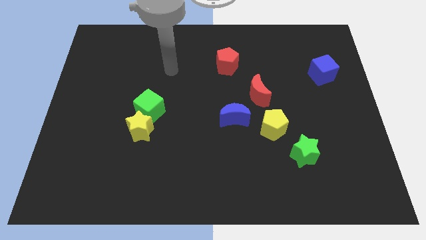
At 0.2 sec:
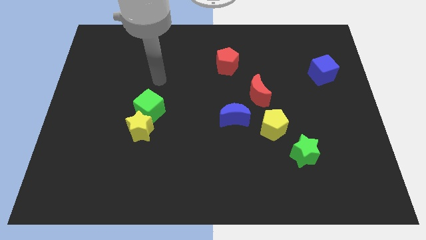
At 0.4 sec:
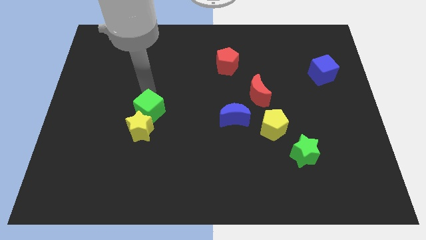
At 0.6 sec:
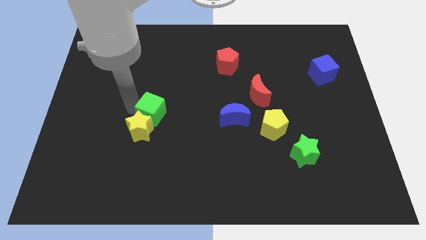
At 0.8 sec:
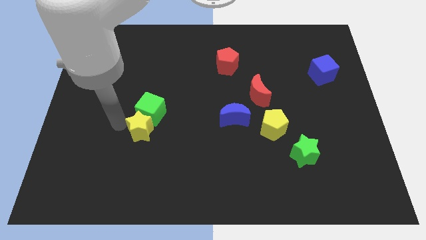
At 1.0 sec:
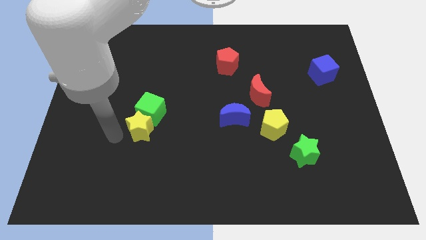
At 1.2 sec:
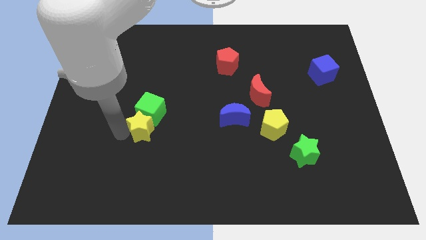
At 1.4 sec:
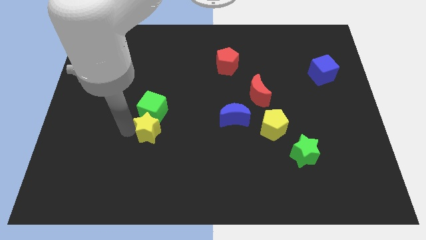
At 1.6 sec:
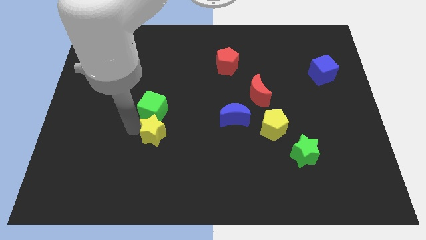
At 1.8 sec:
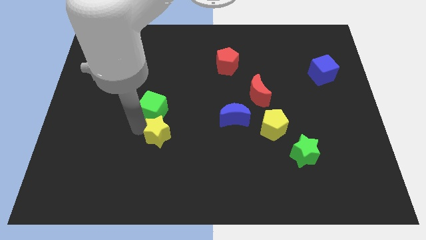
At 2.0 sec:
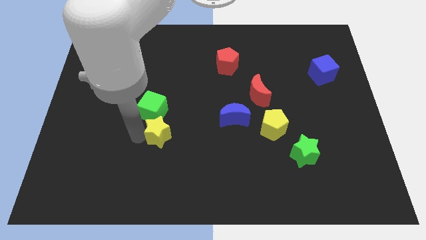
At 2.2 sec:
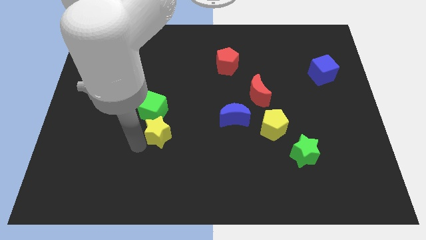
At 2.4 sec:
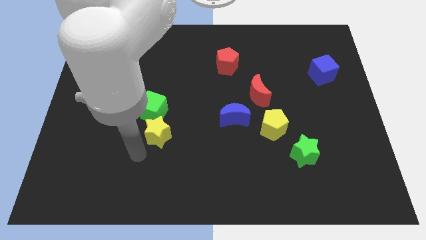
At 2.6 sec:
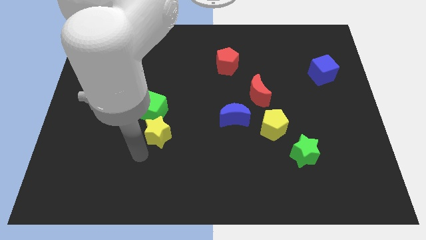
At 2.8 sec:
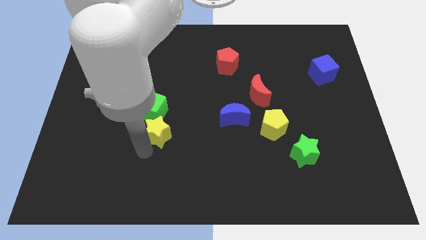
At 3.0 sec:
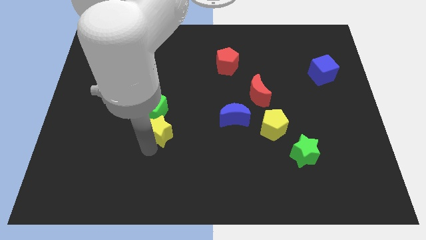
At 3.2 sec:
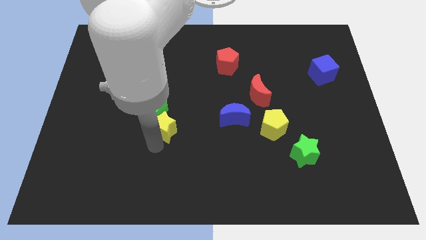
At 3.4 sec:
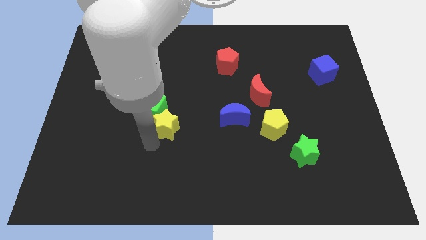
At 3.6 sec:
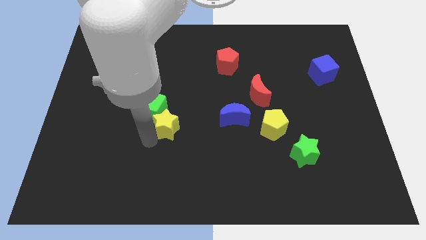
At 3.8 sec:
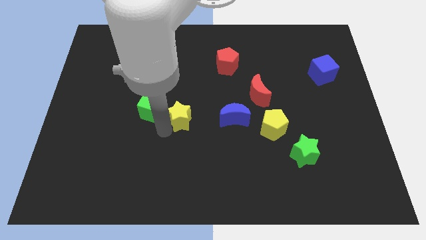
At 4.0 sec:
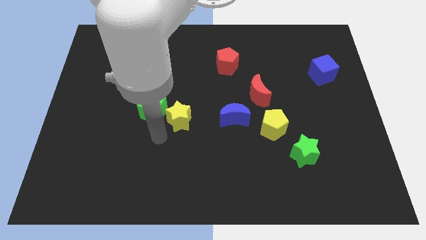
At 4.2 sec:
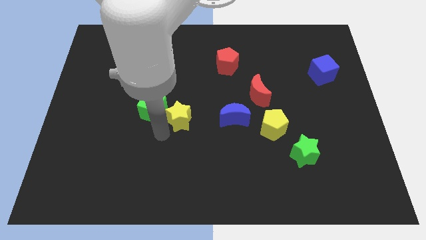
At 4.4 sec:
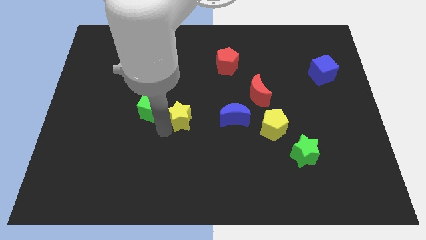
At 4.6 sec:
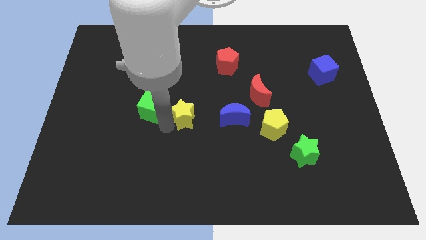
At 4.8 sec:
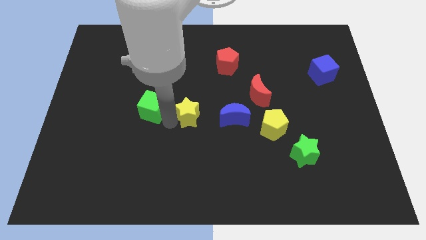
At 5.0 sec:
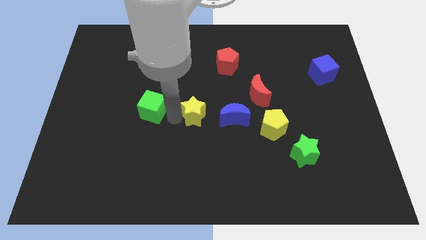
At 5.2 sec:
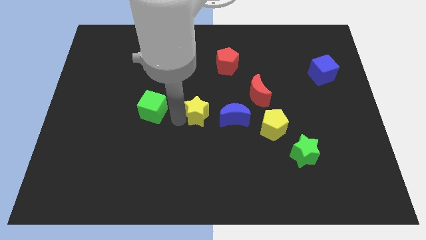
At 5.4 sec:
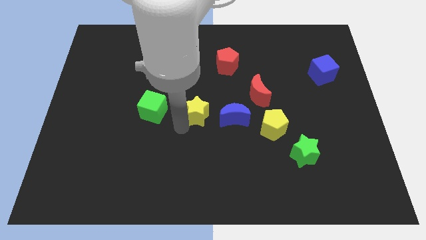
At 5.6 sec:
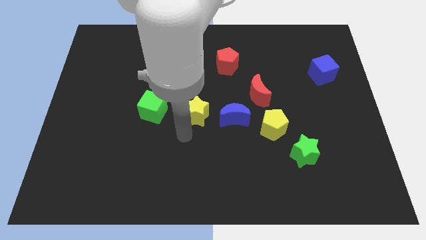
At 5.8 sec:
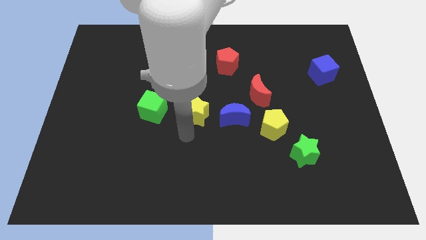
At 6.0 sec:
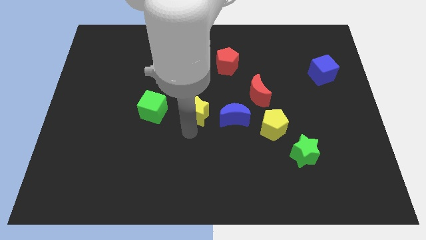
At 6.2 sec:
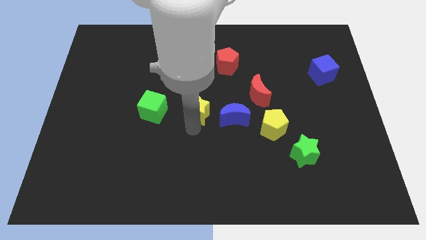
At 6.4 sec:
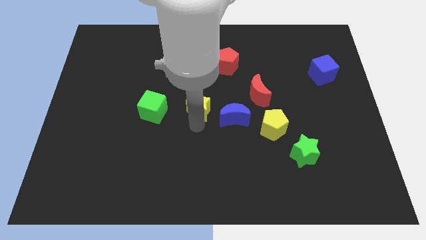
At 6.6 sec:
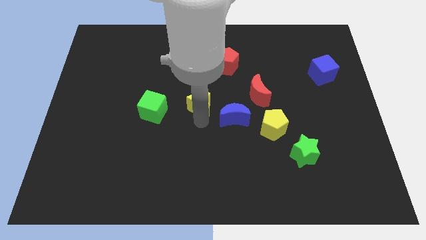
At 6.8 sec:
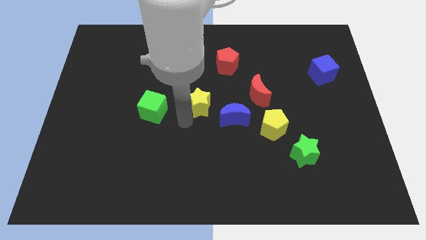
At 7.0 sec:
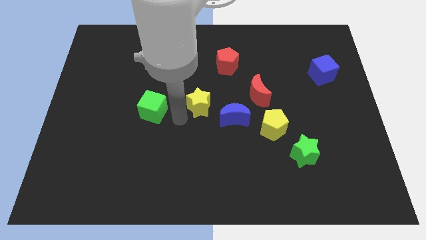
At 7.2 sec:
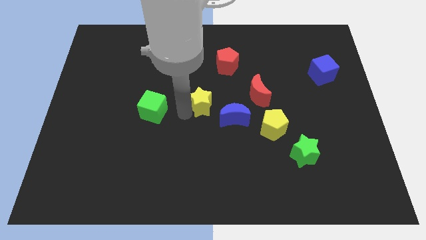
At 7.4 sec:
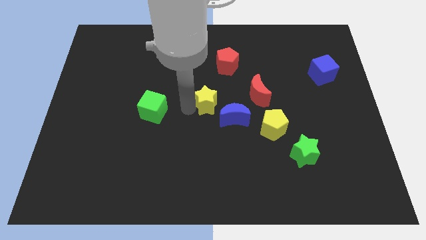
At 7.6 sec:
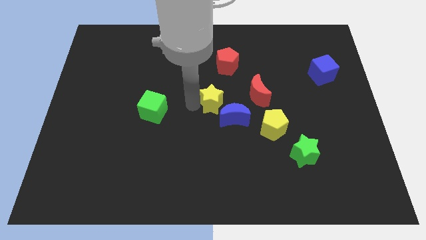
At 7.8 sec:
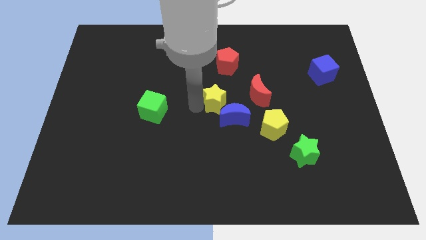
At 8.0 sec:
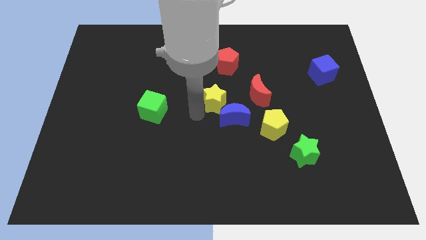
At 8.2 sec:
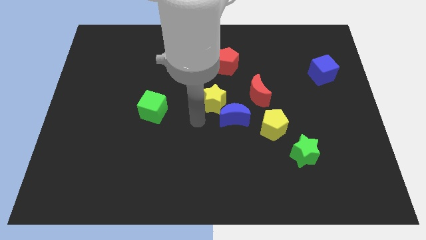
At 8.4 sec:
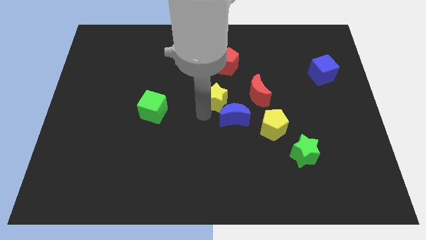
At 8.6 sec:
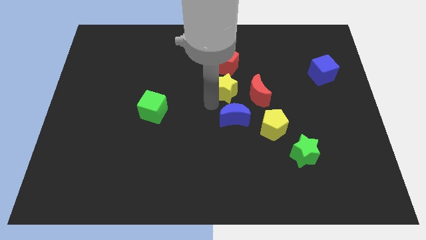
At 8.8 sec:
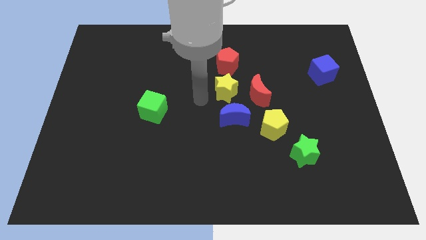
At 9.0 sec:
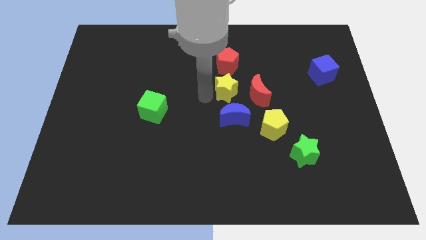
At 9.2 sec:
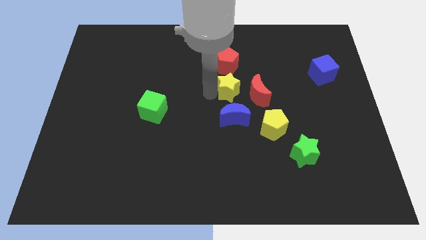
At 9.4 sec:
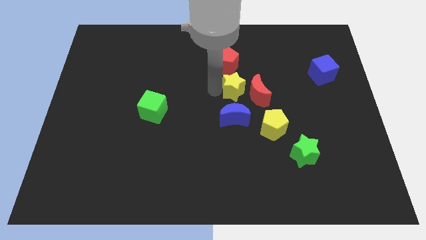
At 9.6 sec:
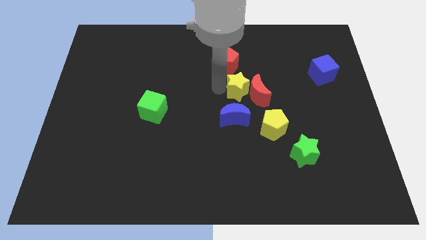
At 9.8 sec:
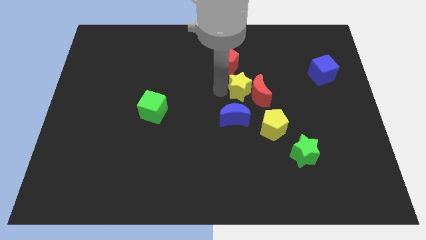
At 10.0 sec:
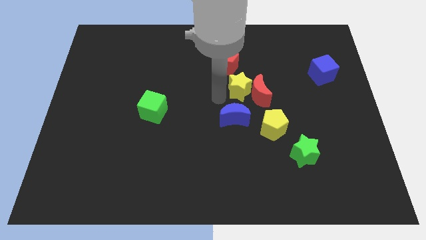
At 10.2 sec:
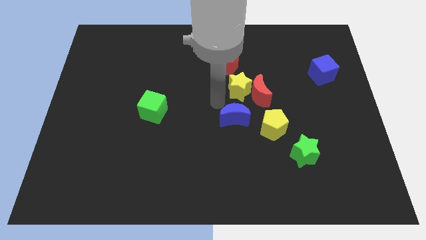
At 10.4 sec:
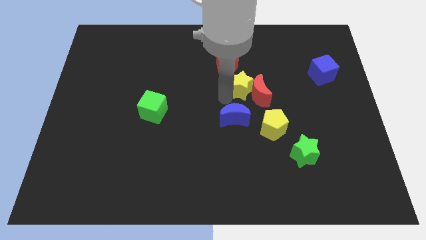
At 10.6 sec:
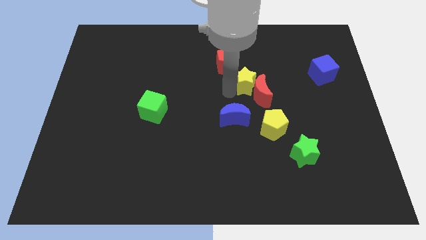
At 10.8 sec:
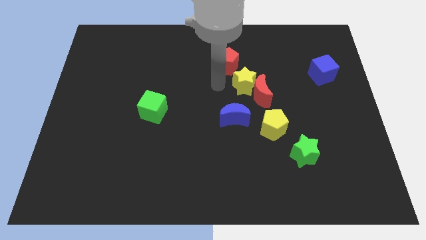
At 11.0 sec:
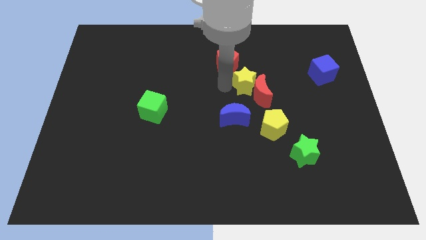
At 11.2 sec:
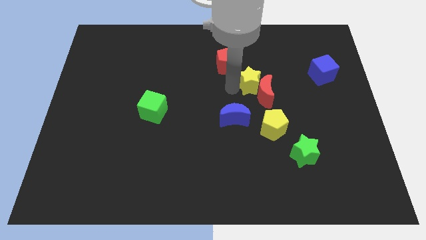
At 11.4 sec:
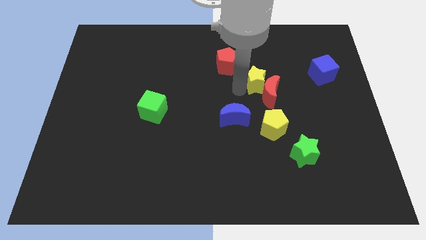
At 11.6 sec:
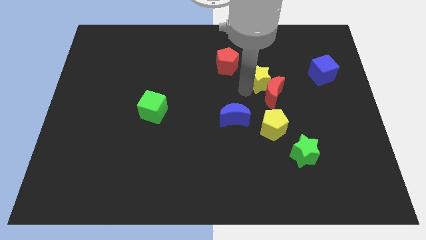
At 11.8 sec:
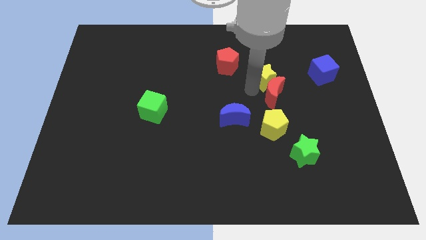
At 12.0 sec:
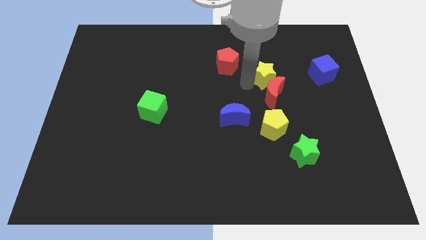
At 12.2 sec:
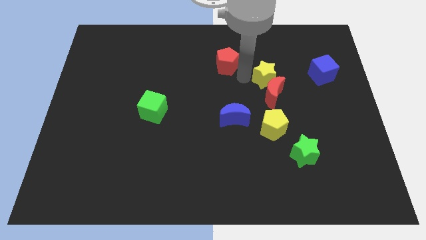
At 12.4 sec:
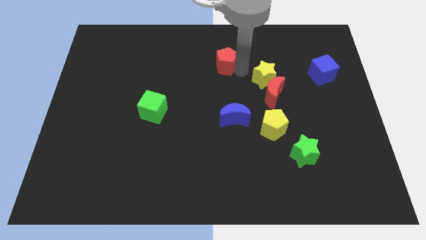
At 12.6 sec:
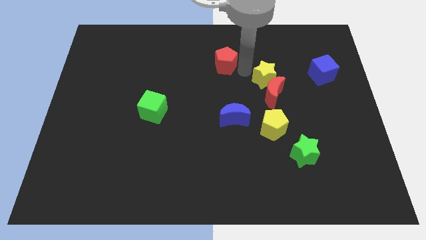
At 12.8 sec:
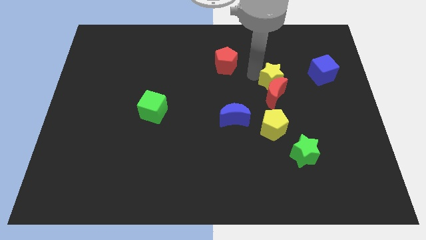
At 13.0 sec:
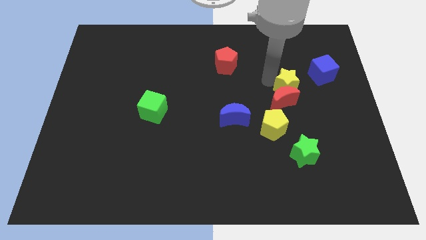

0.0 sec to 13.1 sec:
slide the yellow star to the bottom left of the blue cube
